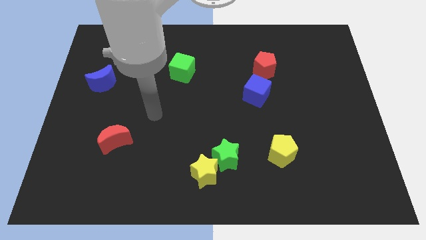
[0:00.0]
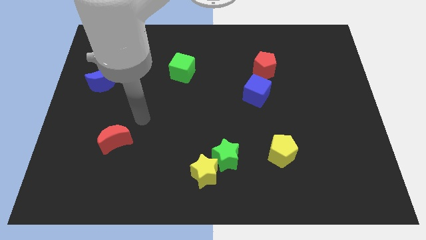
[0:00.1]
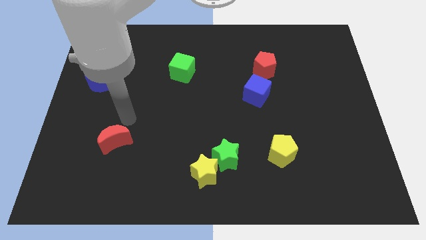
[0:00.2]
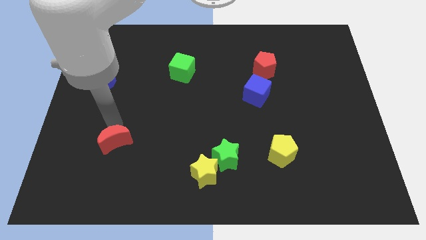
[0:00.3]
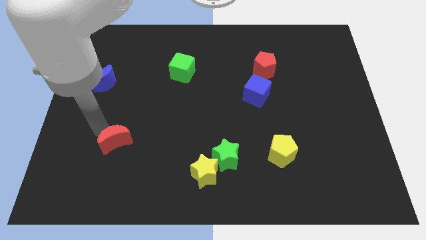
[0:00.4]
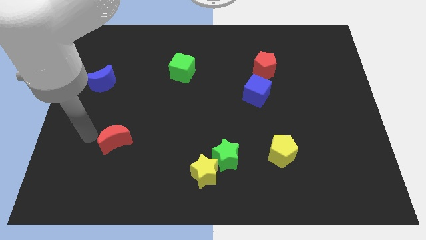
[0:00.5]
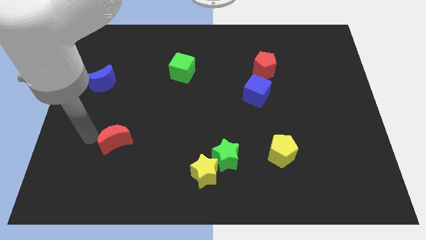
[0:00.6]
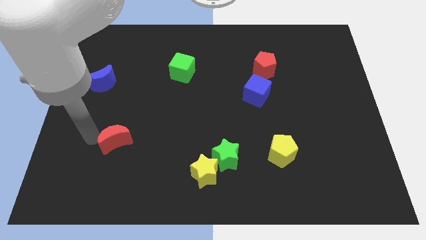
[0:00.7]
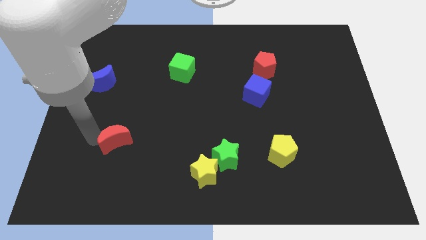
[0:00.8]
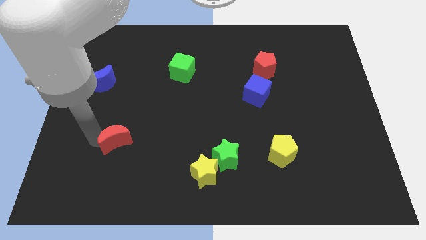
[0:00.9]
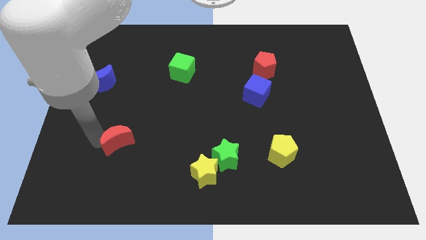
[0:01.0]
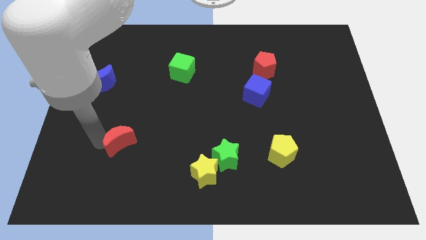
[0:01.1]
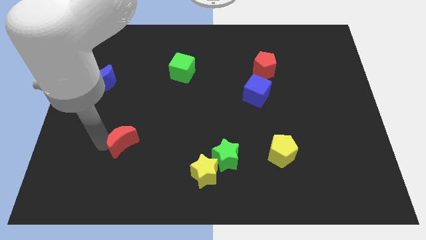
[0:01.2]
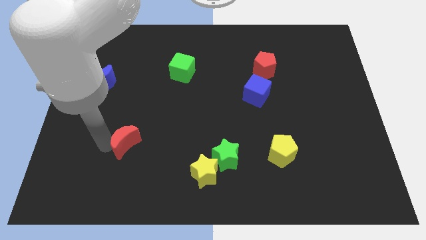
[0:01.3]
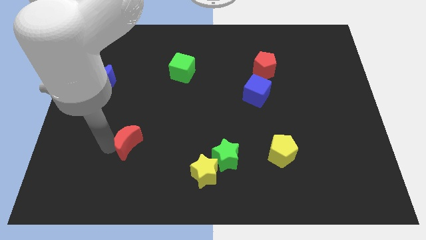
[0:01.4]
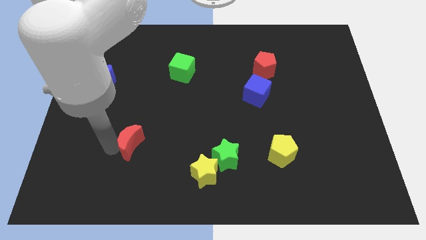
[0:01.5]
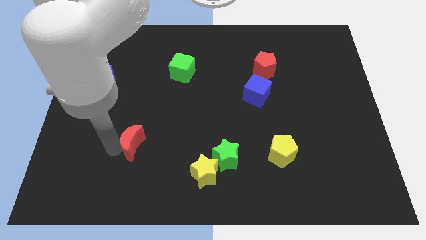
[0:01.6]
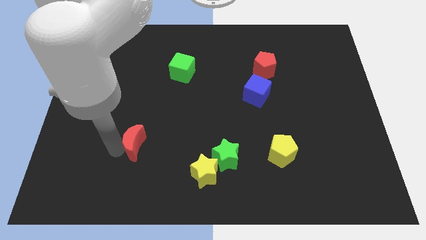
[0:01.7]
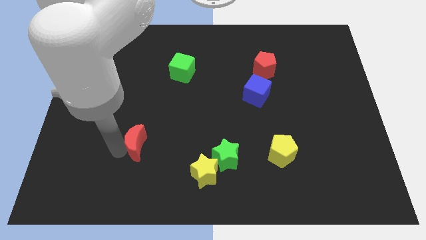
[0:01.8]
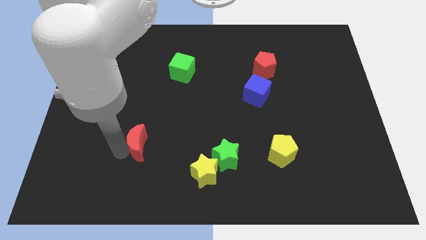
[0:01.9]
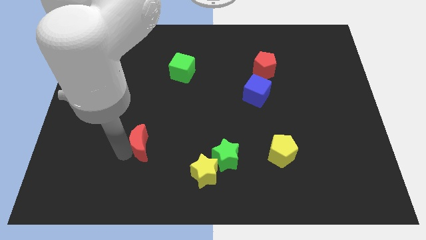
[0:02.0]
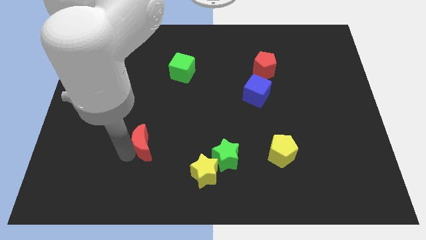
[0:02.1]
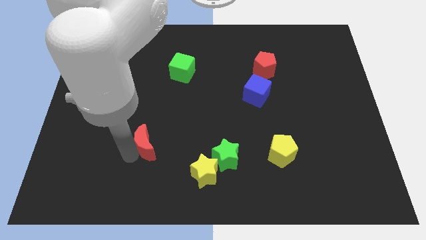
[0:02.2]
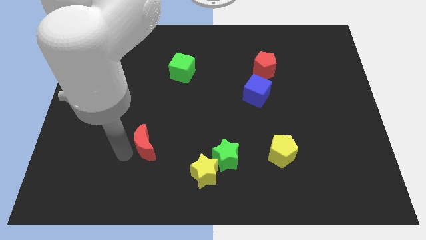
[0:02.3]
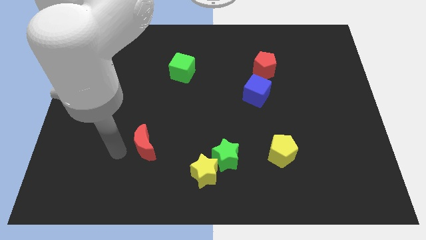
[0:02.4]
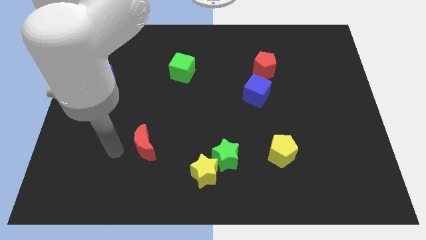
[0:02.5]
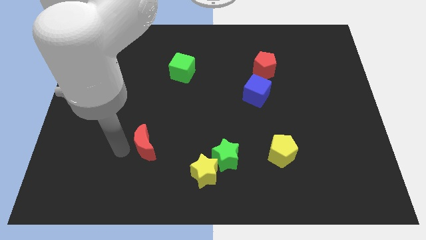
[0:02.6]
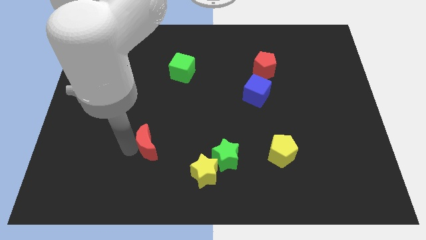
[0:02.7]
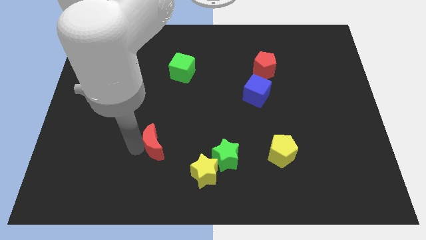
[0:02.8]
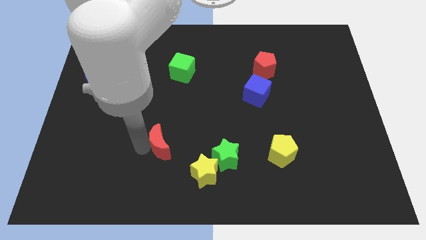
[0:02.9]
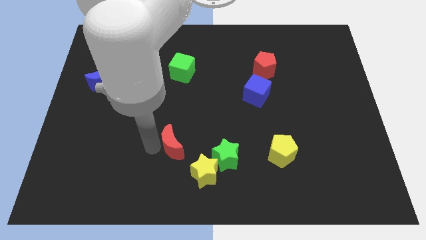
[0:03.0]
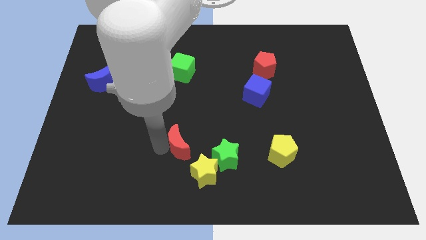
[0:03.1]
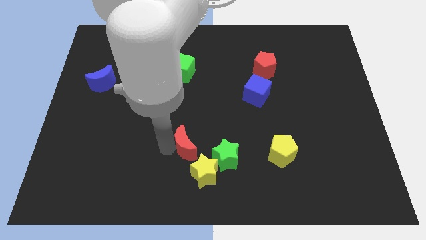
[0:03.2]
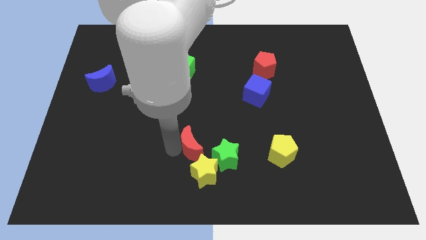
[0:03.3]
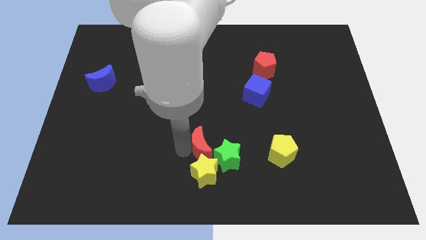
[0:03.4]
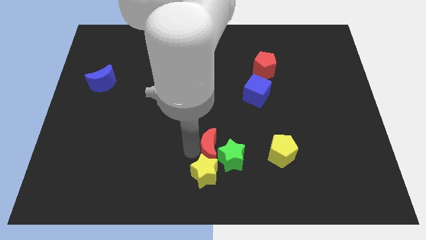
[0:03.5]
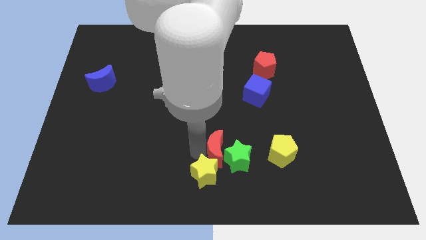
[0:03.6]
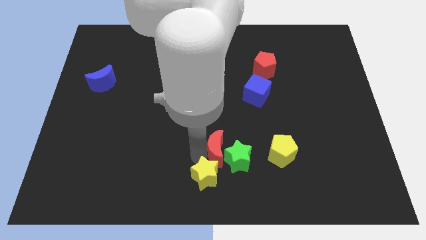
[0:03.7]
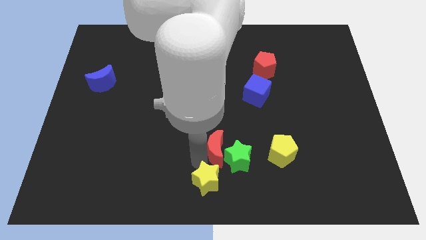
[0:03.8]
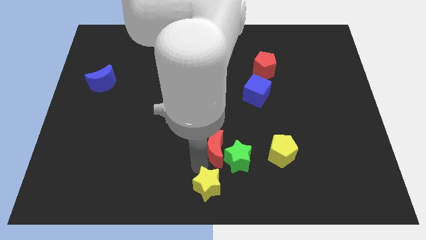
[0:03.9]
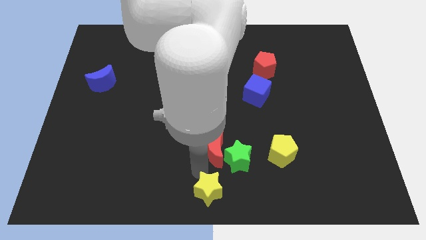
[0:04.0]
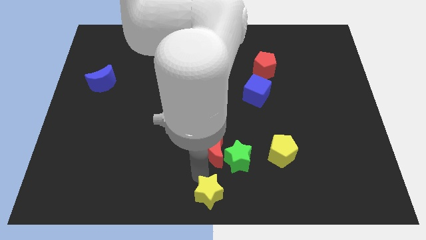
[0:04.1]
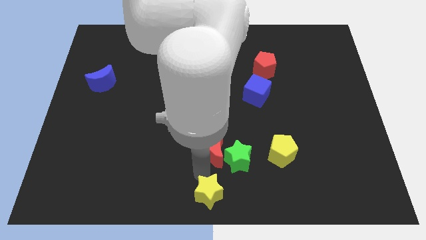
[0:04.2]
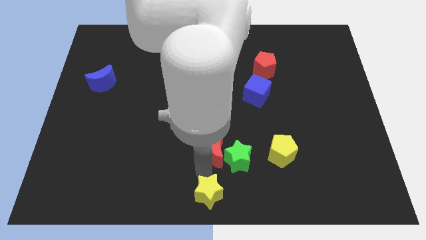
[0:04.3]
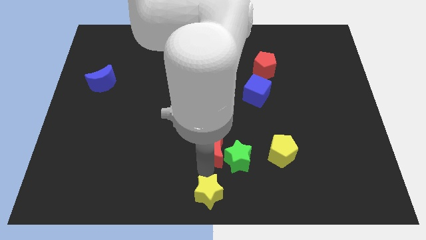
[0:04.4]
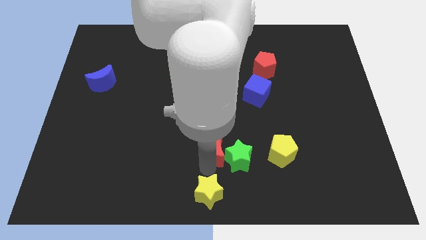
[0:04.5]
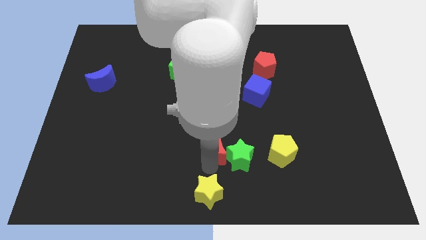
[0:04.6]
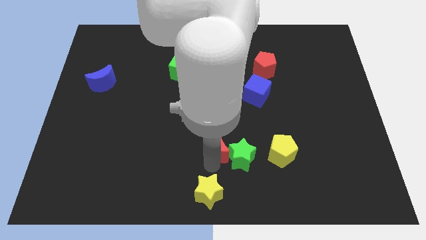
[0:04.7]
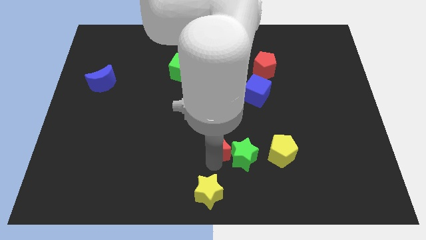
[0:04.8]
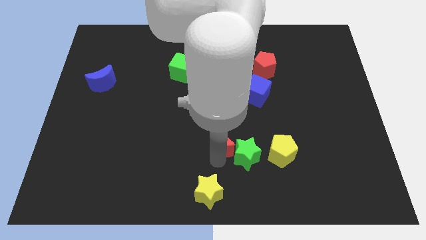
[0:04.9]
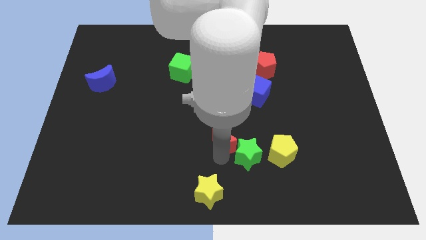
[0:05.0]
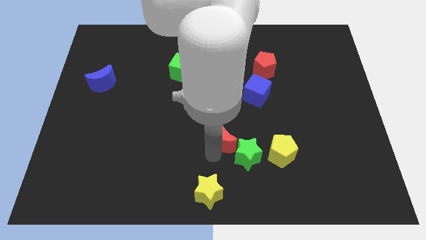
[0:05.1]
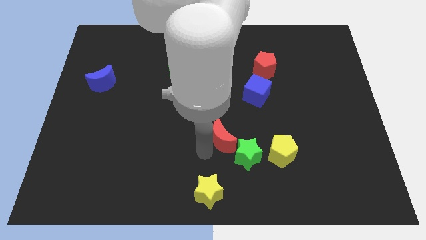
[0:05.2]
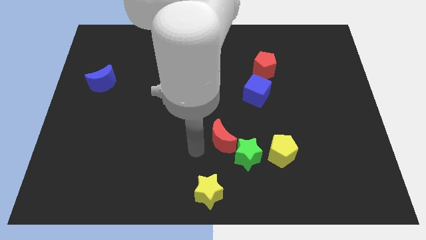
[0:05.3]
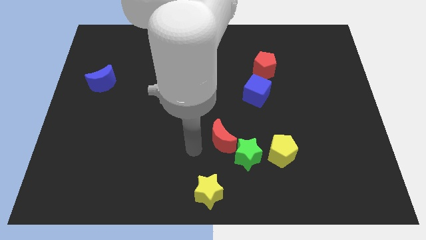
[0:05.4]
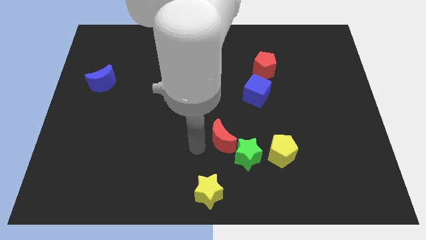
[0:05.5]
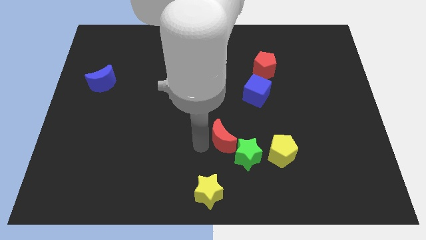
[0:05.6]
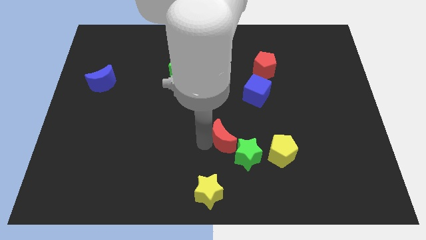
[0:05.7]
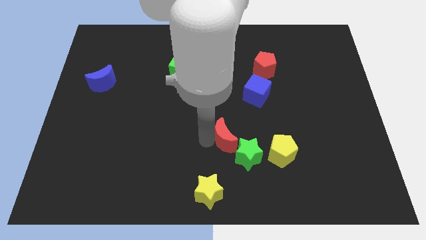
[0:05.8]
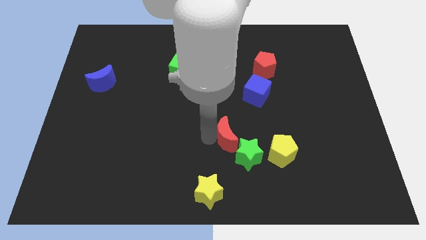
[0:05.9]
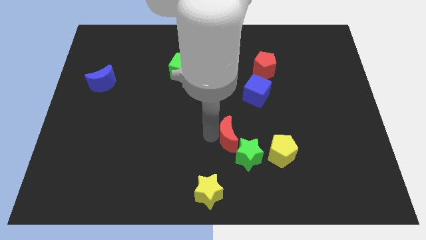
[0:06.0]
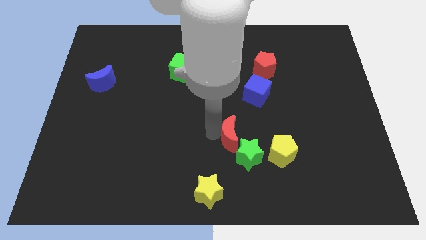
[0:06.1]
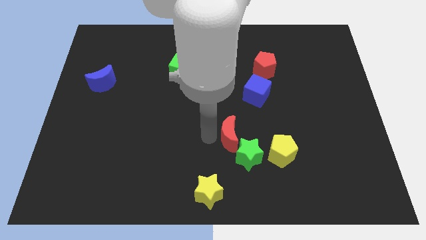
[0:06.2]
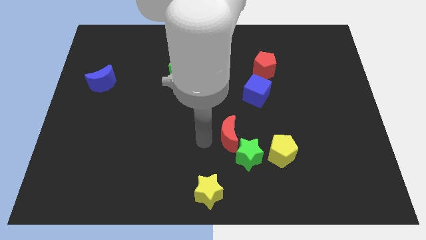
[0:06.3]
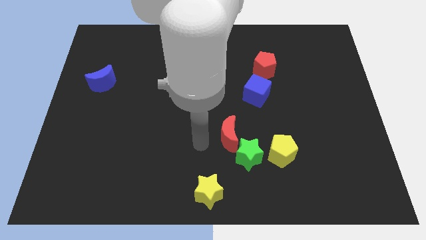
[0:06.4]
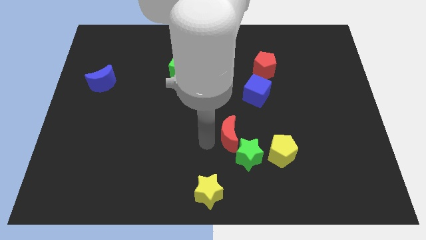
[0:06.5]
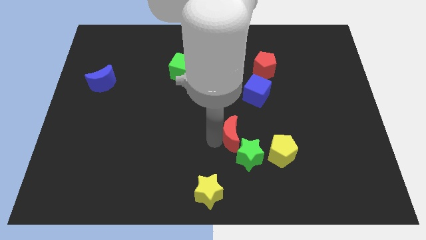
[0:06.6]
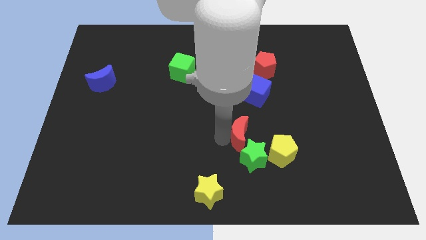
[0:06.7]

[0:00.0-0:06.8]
slide the red moon to the bottom of the blue cube
